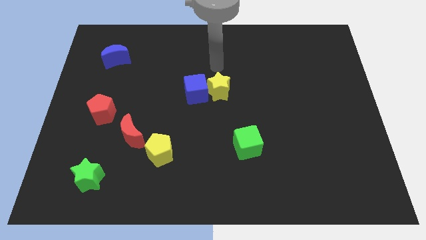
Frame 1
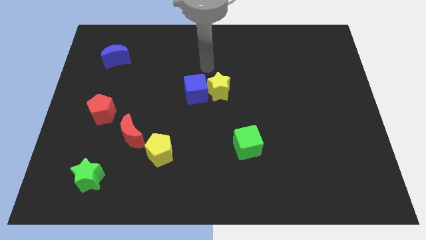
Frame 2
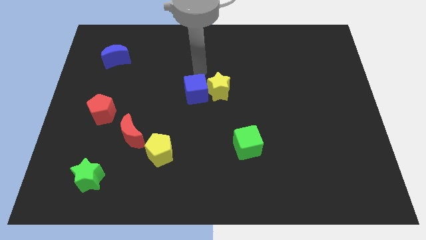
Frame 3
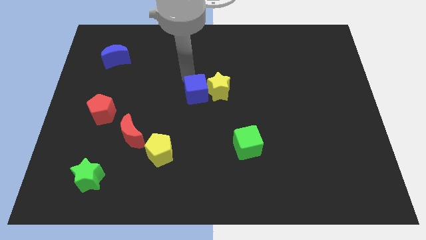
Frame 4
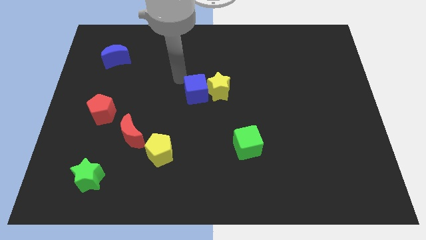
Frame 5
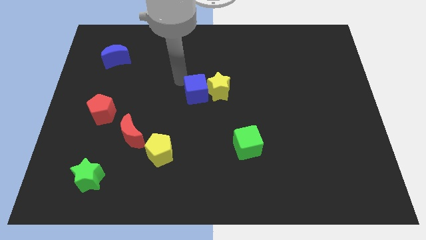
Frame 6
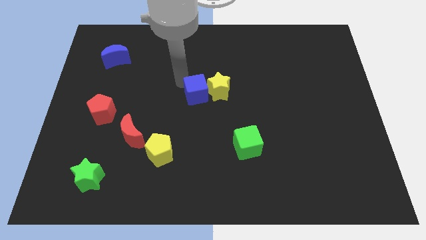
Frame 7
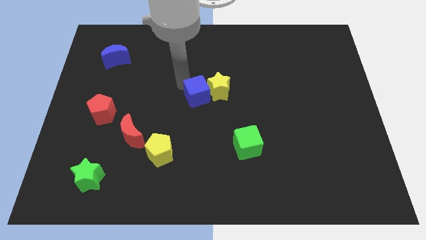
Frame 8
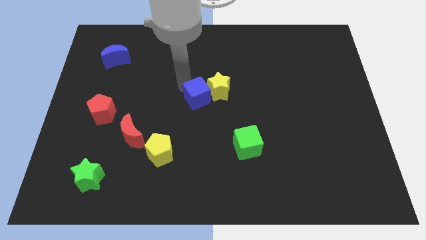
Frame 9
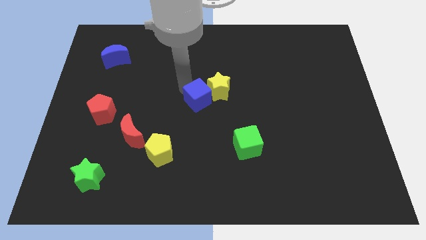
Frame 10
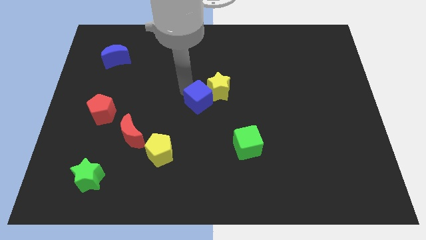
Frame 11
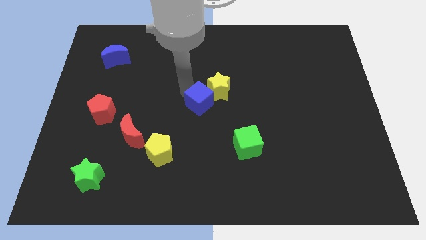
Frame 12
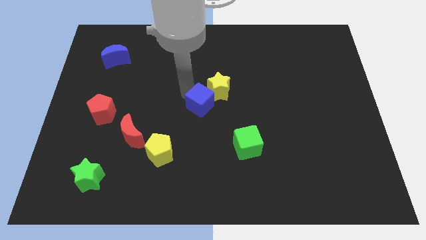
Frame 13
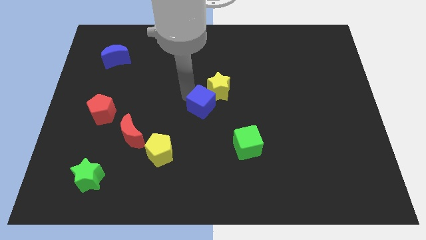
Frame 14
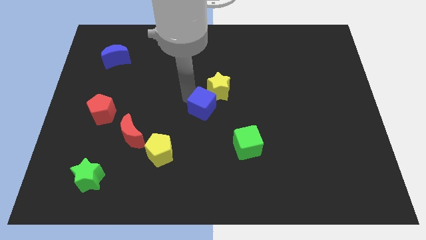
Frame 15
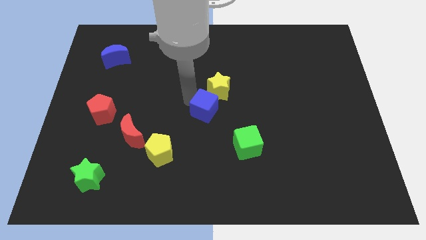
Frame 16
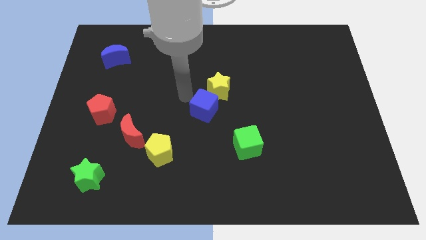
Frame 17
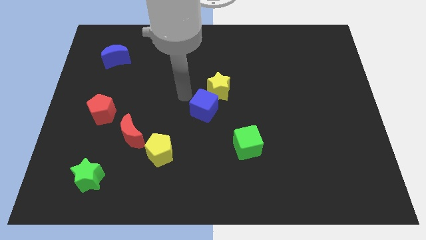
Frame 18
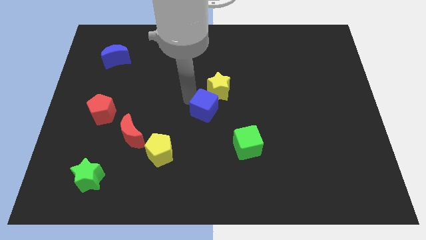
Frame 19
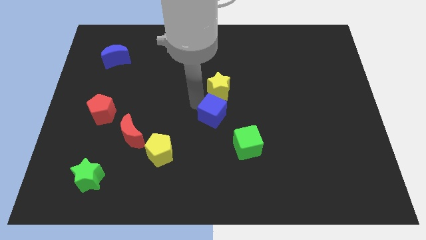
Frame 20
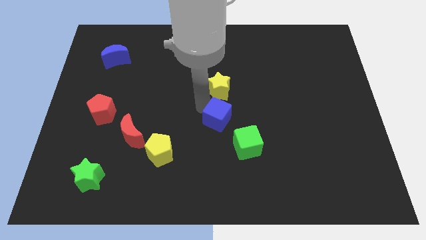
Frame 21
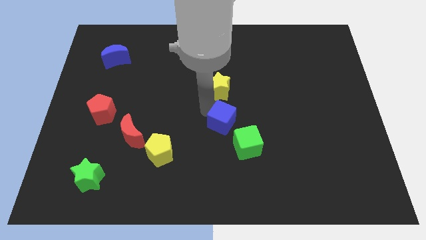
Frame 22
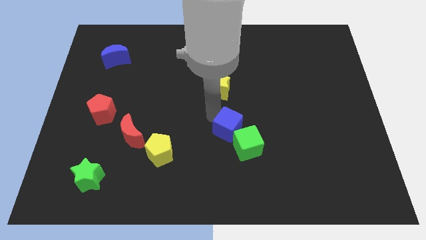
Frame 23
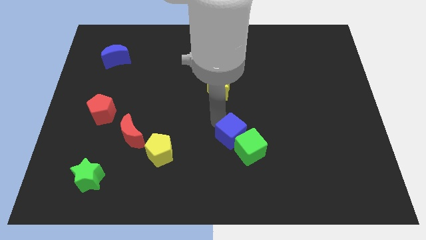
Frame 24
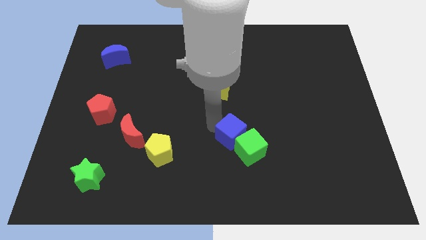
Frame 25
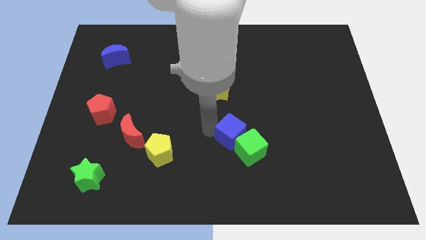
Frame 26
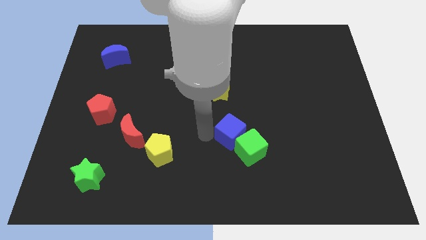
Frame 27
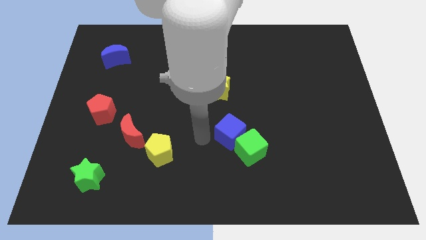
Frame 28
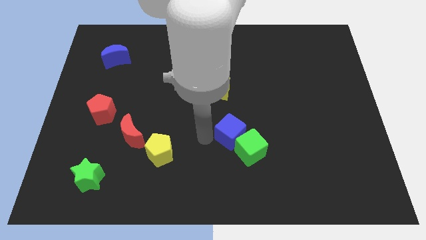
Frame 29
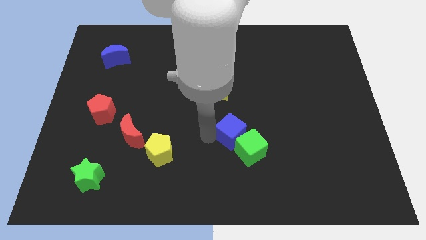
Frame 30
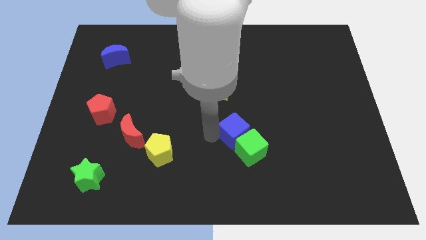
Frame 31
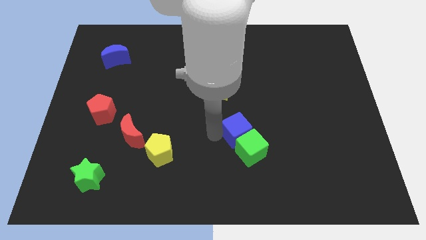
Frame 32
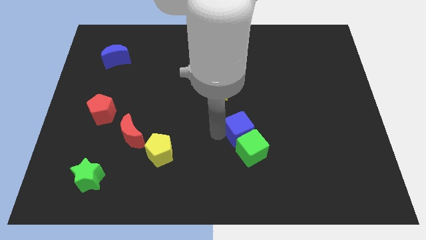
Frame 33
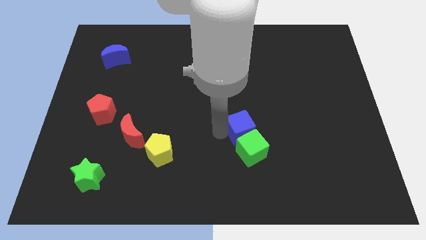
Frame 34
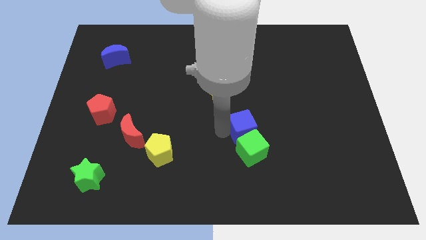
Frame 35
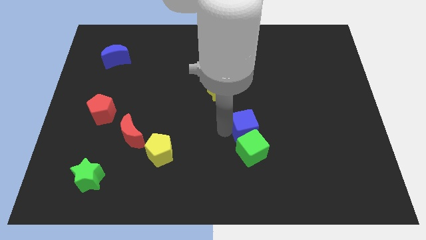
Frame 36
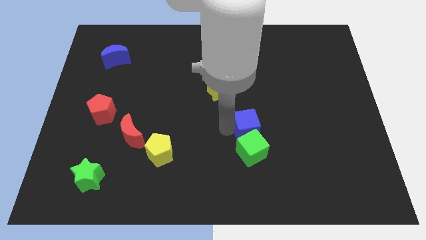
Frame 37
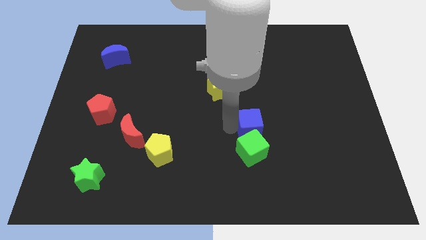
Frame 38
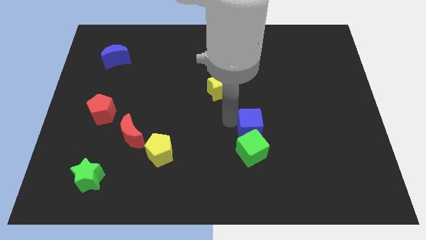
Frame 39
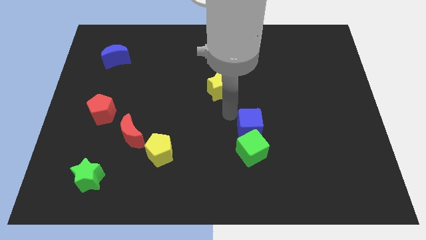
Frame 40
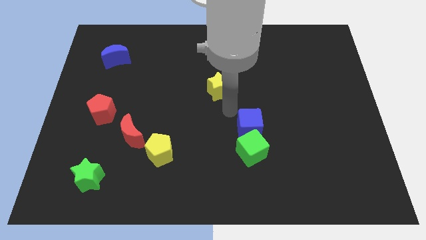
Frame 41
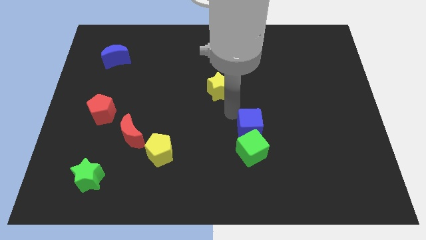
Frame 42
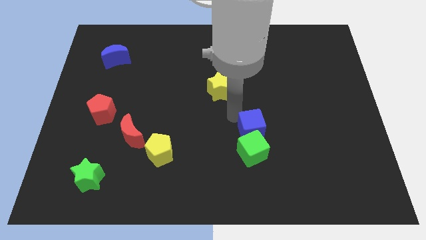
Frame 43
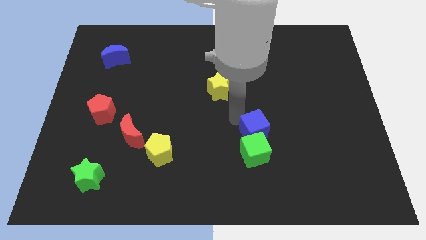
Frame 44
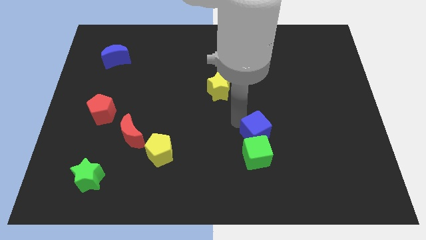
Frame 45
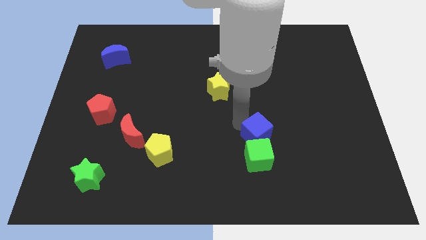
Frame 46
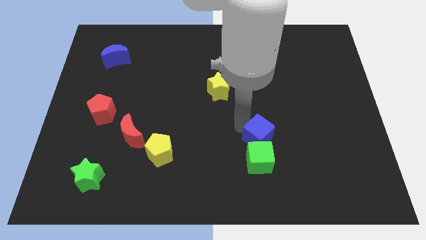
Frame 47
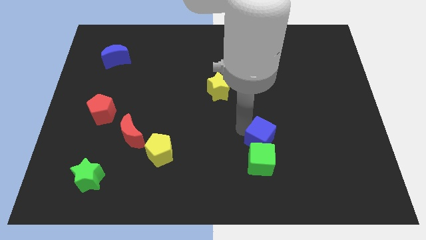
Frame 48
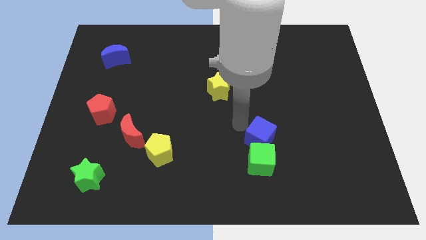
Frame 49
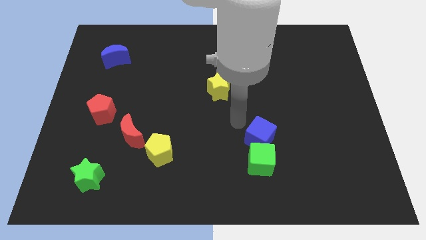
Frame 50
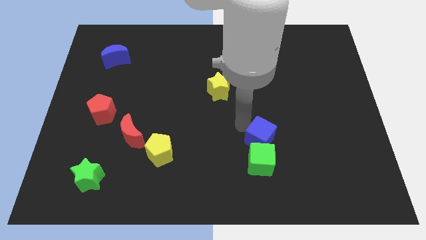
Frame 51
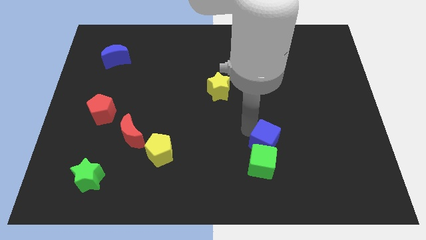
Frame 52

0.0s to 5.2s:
push the blue cube downwards and then right

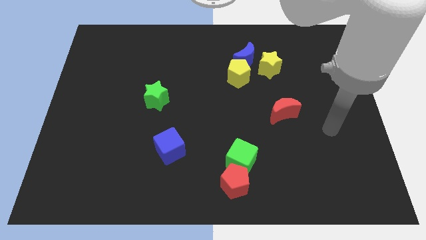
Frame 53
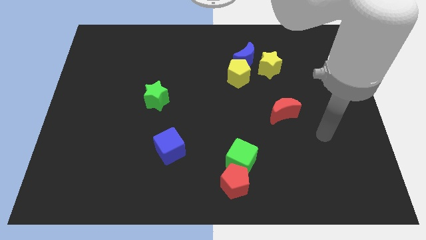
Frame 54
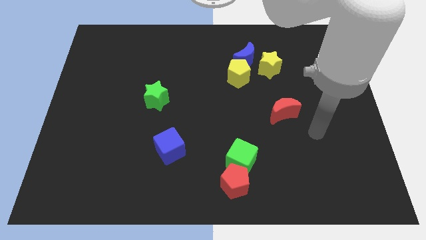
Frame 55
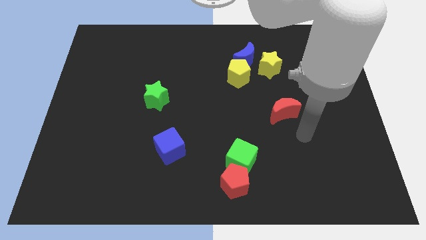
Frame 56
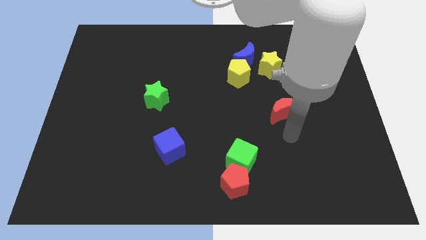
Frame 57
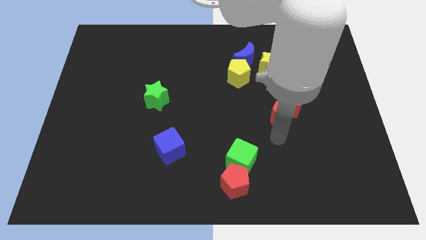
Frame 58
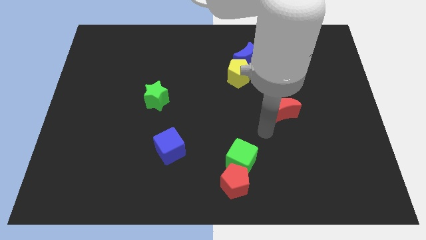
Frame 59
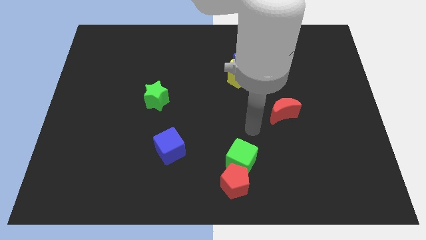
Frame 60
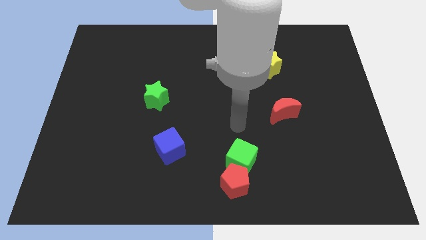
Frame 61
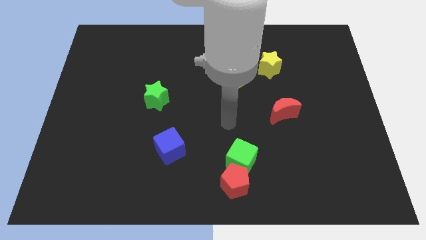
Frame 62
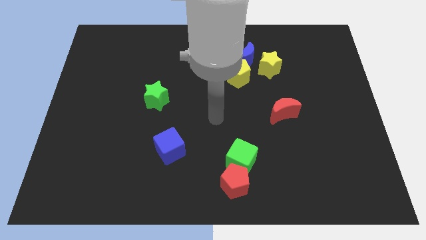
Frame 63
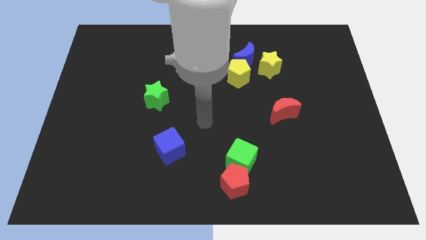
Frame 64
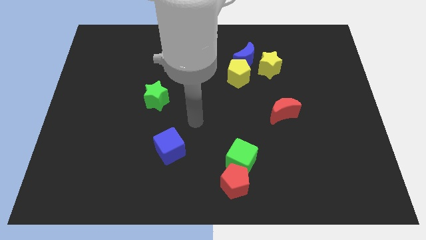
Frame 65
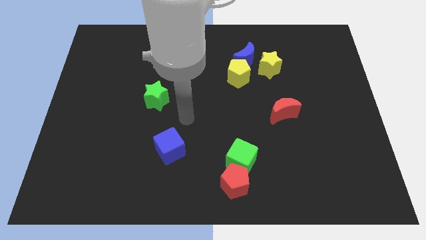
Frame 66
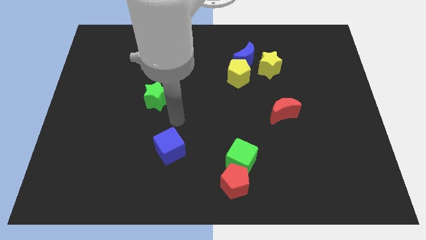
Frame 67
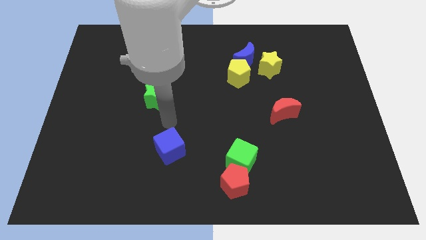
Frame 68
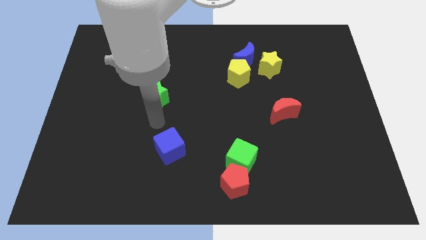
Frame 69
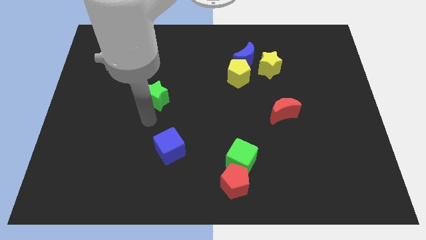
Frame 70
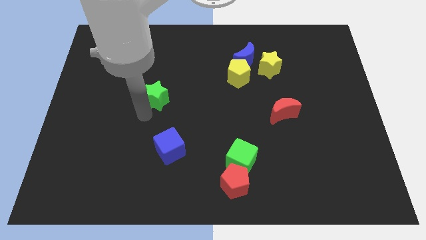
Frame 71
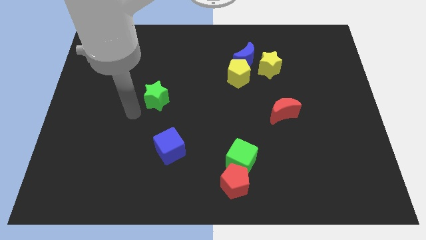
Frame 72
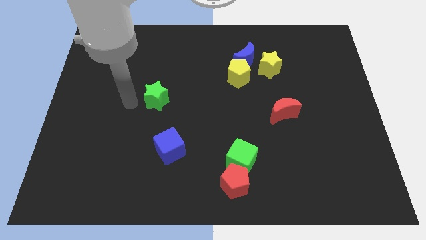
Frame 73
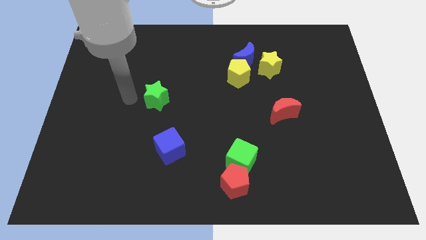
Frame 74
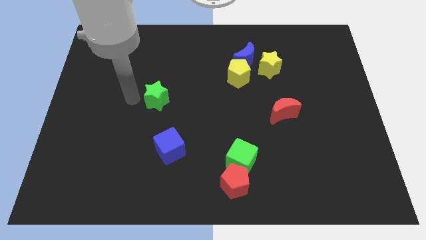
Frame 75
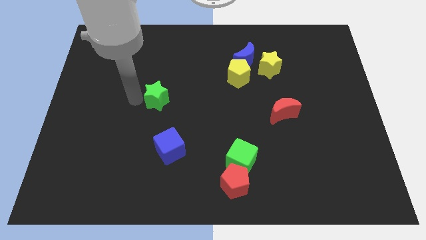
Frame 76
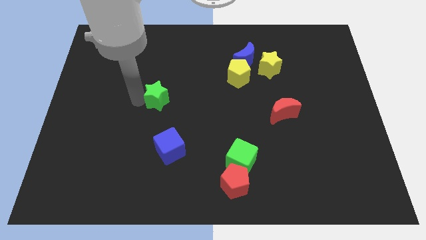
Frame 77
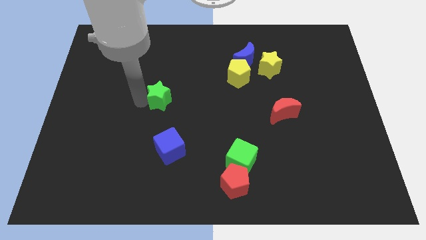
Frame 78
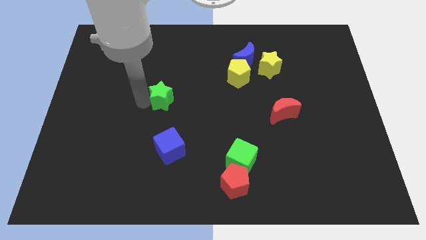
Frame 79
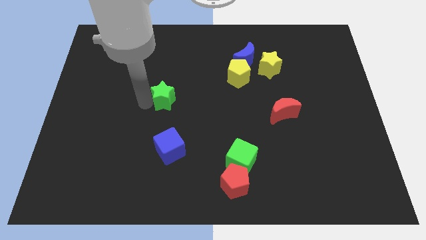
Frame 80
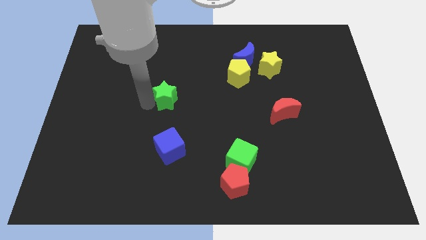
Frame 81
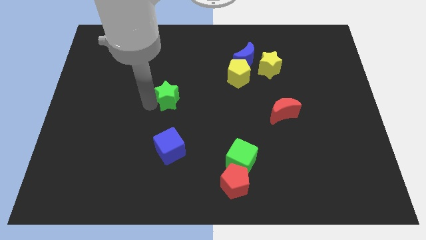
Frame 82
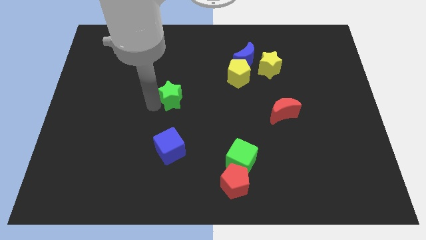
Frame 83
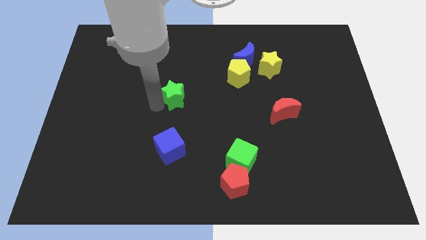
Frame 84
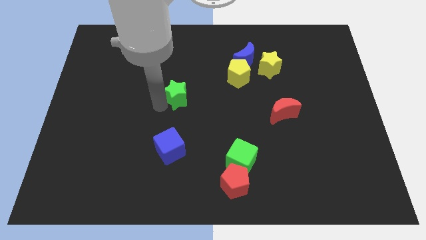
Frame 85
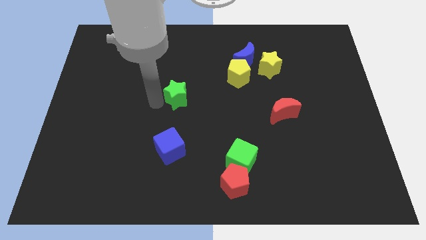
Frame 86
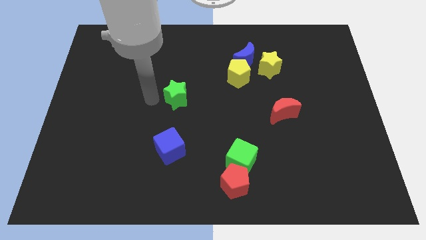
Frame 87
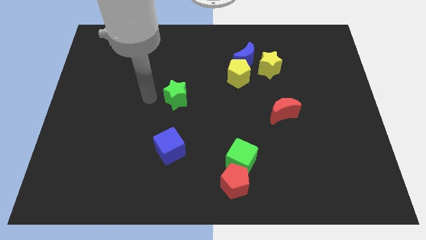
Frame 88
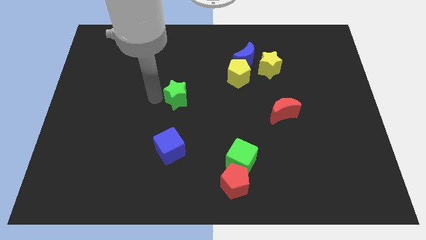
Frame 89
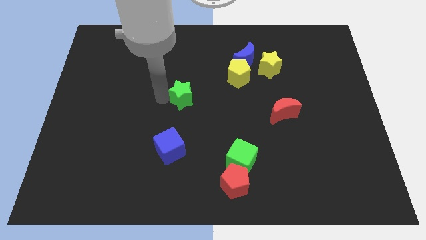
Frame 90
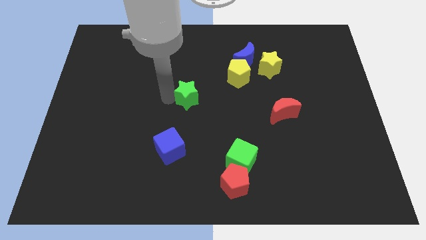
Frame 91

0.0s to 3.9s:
push the green star a little bit right
